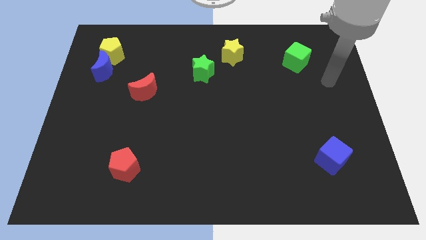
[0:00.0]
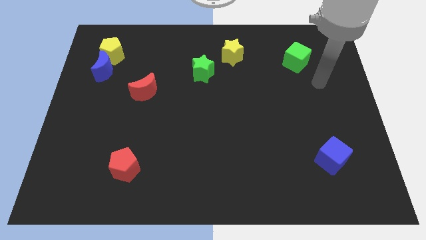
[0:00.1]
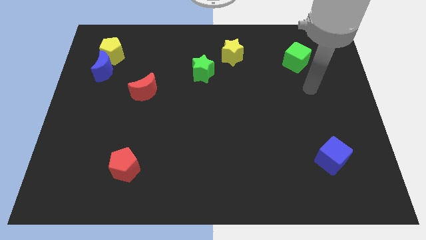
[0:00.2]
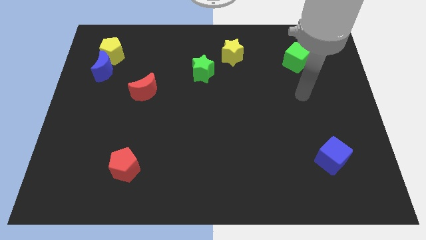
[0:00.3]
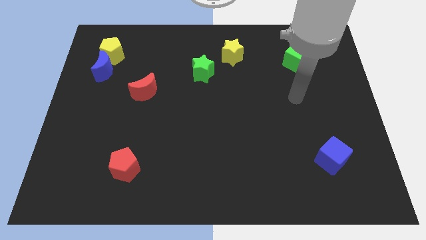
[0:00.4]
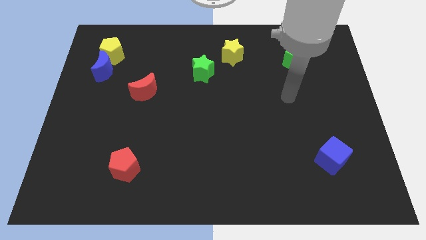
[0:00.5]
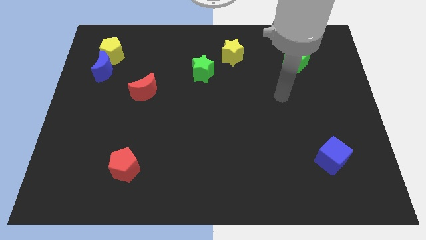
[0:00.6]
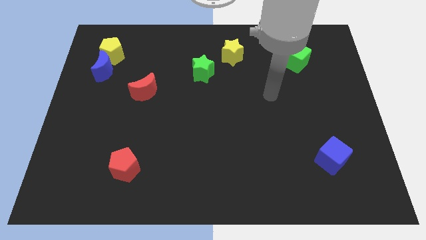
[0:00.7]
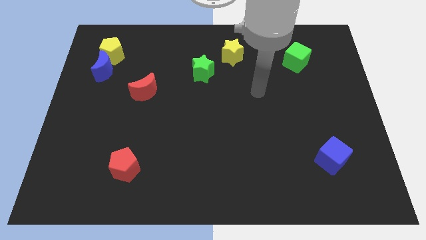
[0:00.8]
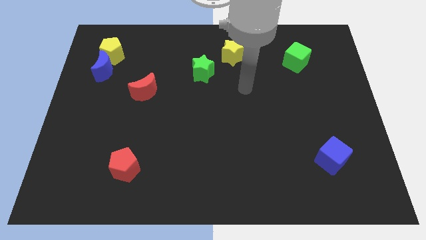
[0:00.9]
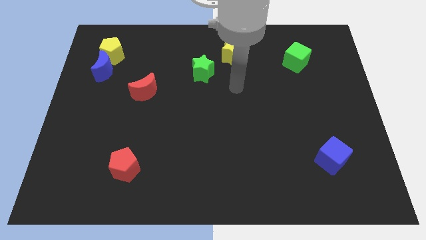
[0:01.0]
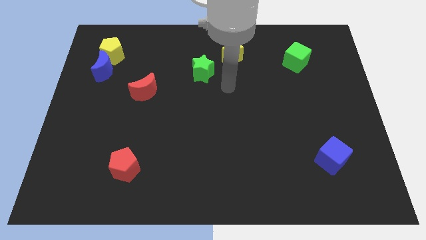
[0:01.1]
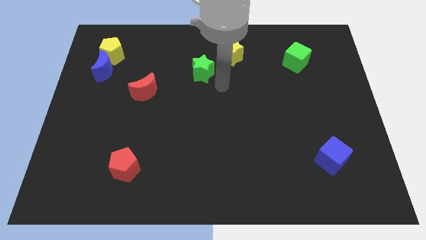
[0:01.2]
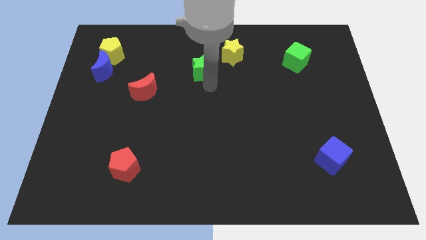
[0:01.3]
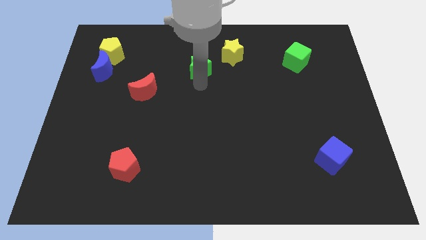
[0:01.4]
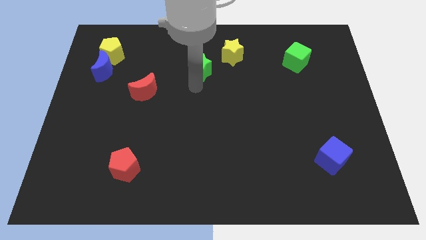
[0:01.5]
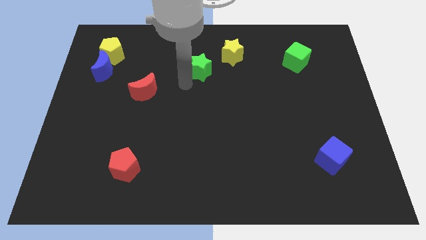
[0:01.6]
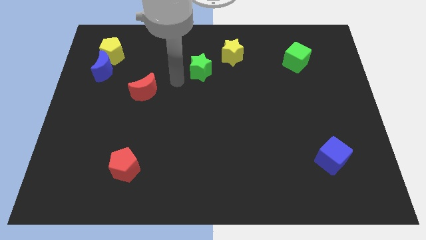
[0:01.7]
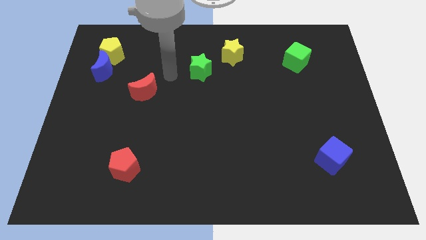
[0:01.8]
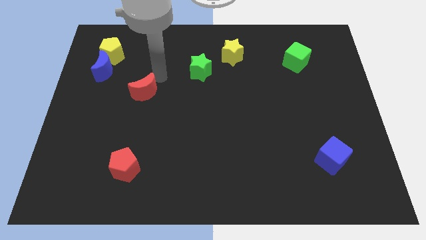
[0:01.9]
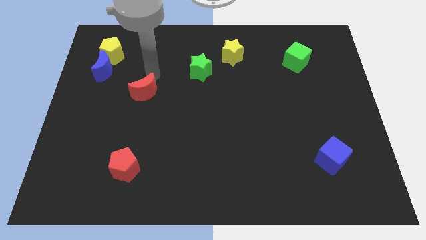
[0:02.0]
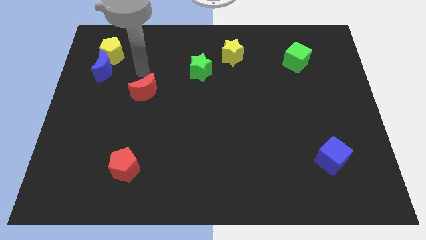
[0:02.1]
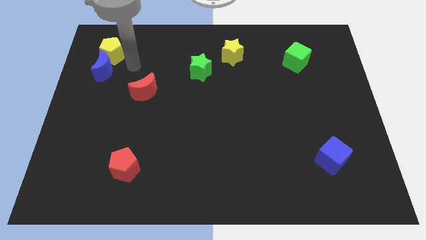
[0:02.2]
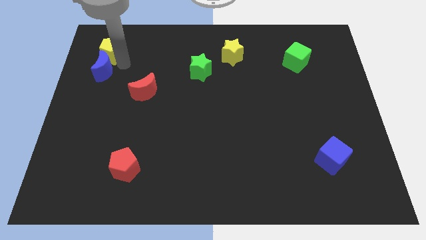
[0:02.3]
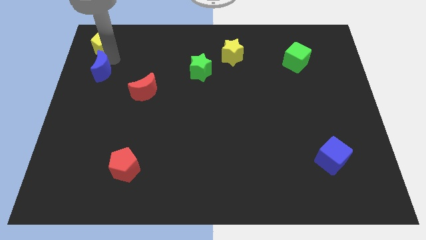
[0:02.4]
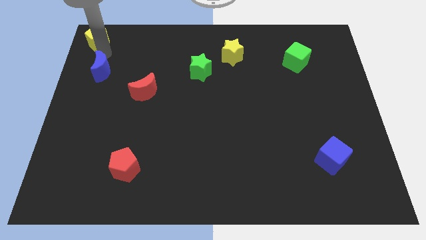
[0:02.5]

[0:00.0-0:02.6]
separate the blue moon from the yellow pentagon

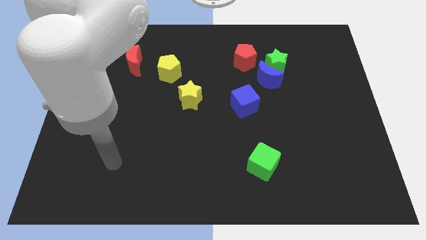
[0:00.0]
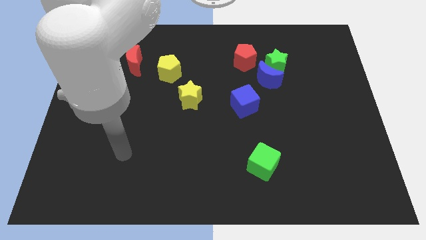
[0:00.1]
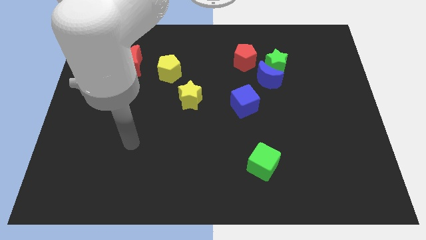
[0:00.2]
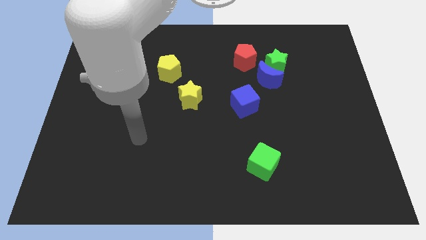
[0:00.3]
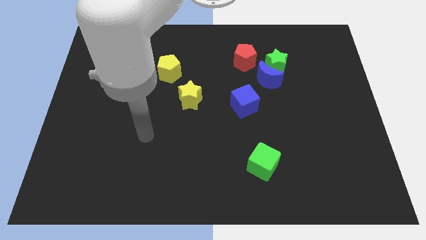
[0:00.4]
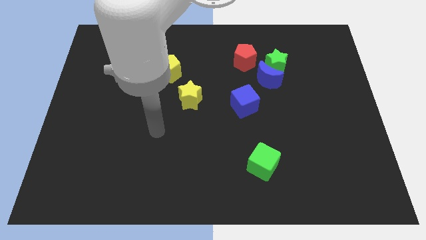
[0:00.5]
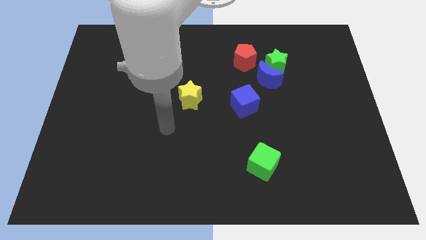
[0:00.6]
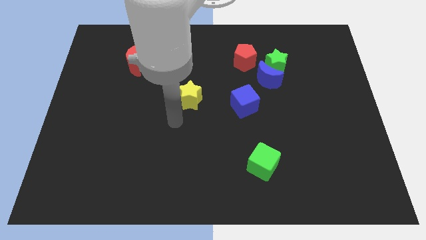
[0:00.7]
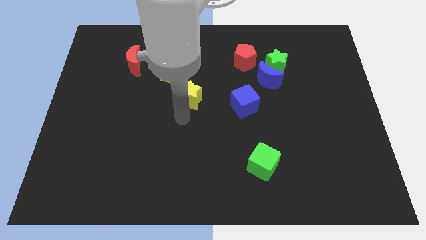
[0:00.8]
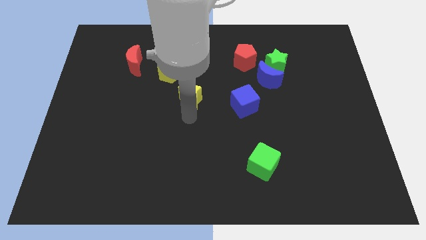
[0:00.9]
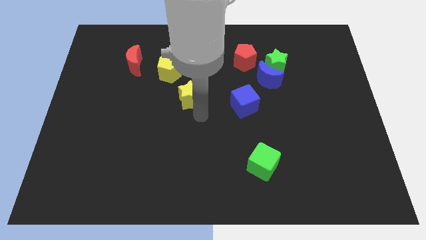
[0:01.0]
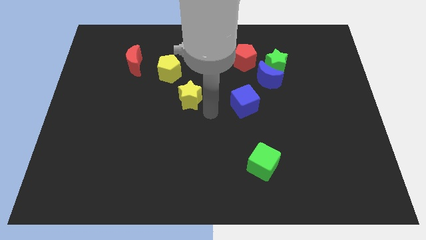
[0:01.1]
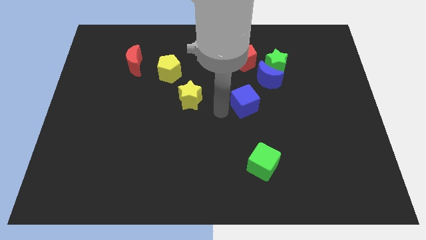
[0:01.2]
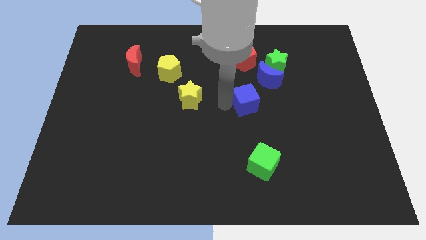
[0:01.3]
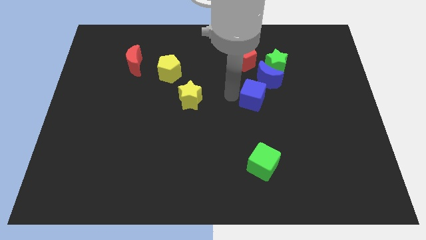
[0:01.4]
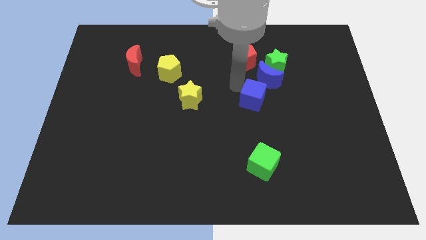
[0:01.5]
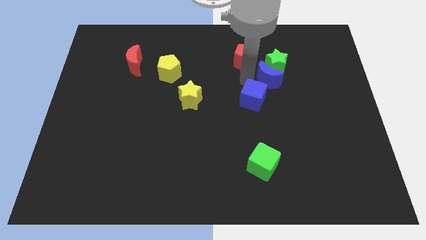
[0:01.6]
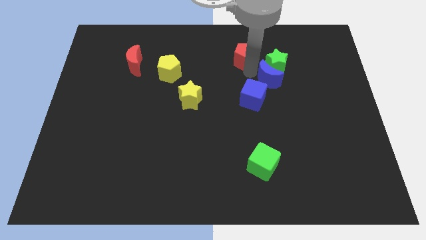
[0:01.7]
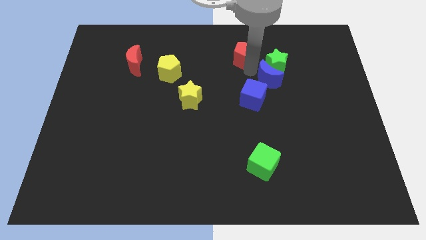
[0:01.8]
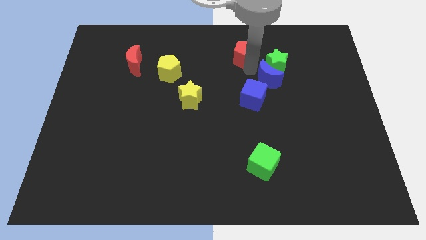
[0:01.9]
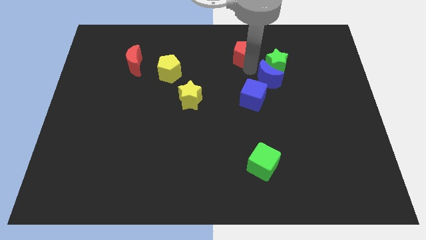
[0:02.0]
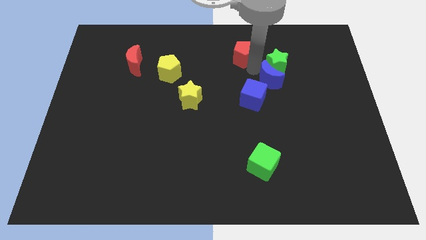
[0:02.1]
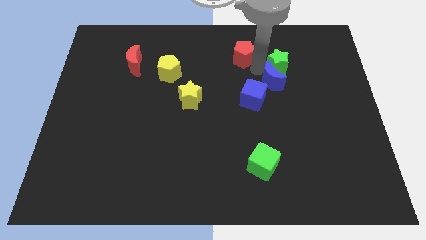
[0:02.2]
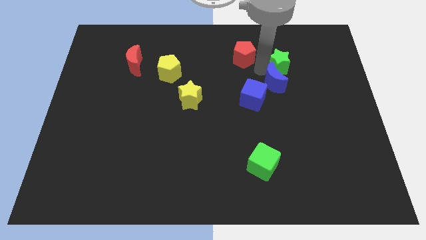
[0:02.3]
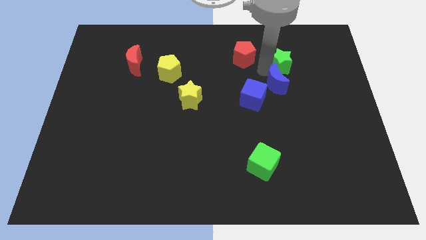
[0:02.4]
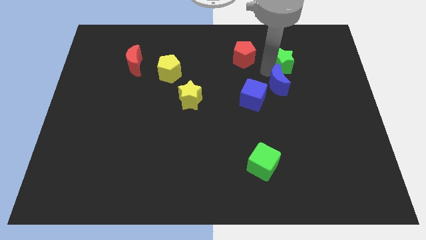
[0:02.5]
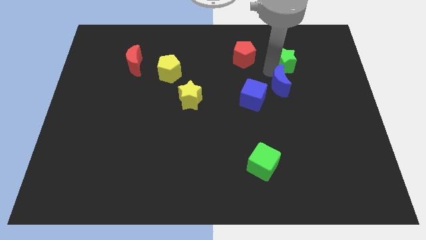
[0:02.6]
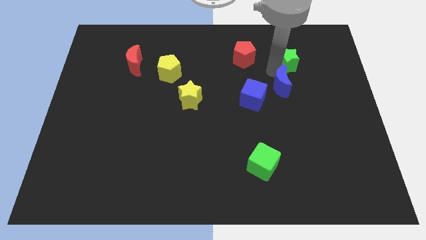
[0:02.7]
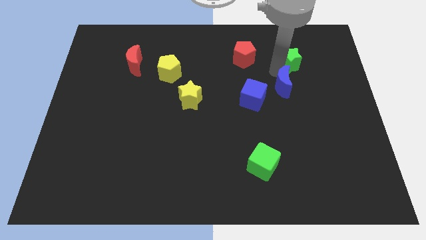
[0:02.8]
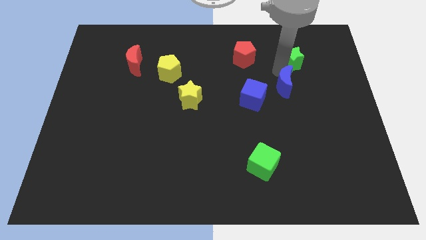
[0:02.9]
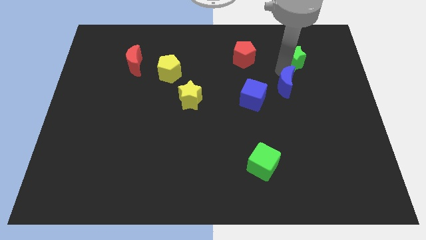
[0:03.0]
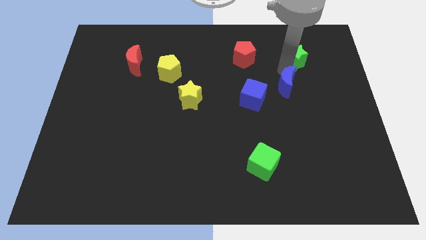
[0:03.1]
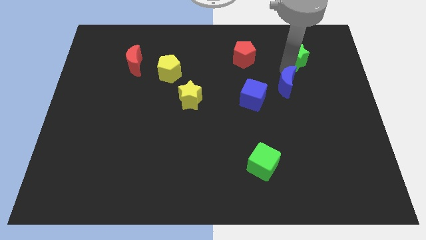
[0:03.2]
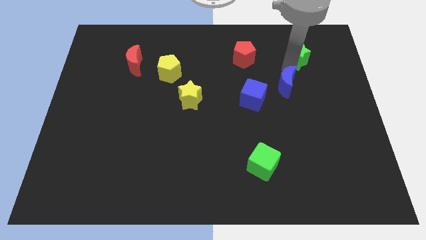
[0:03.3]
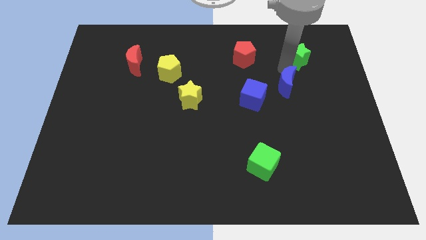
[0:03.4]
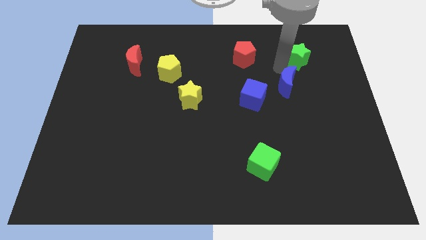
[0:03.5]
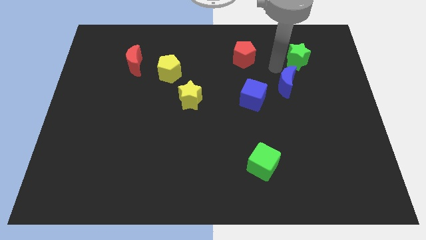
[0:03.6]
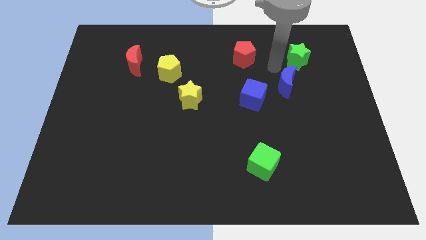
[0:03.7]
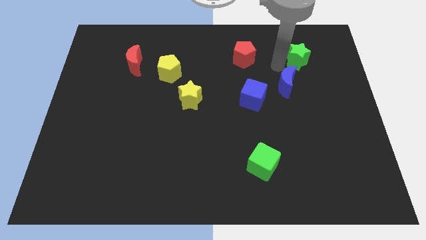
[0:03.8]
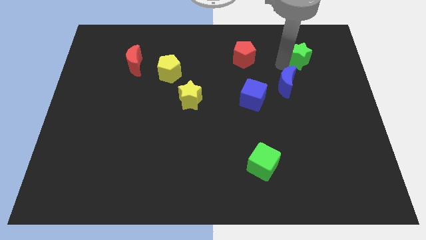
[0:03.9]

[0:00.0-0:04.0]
separate the green star from the blue moon and red pentagon

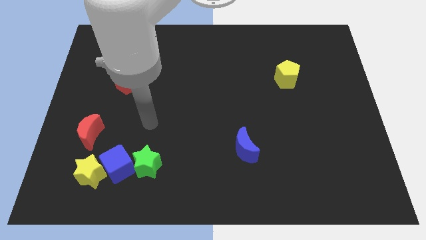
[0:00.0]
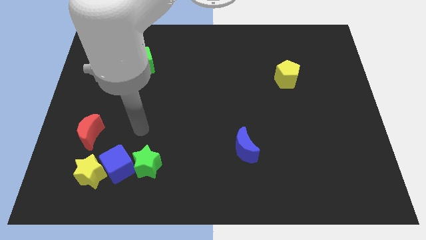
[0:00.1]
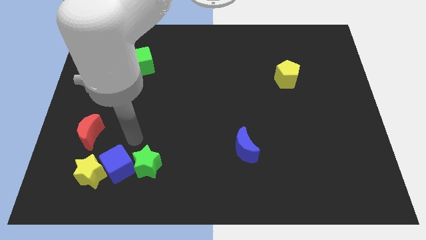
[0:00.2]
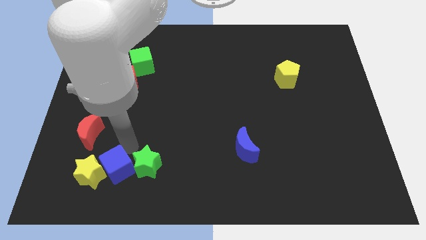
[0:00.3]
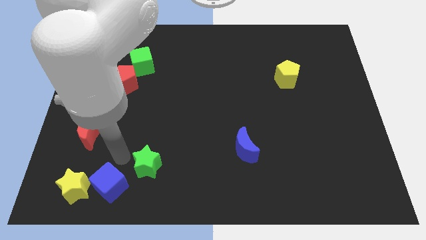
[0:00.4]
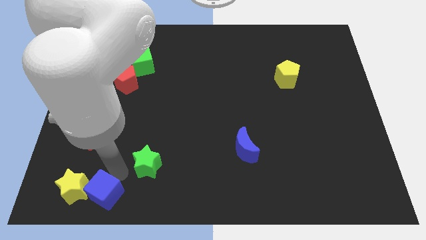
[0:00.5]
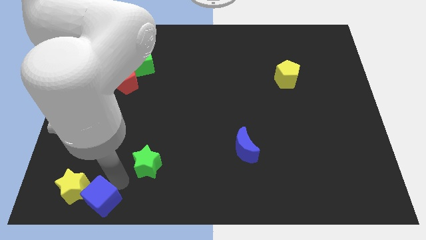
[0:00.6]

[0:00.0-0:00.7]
move the green star away from the blue cube

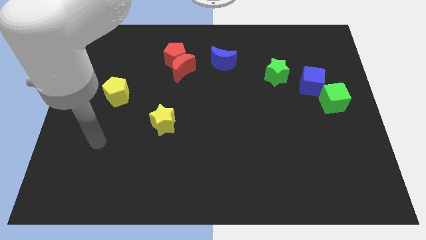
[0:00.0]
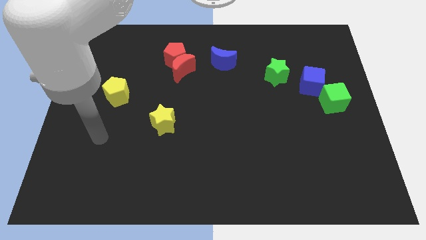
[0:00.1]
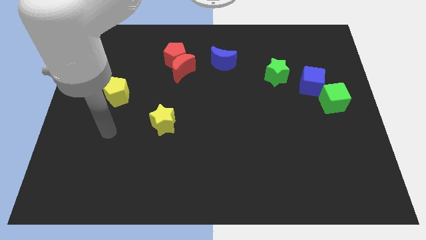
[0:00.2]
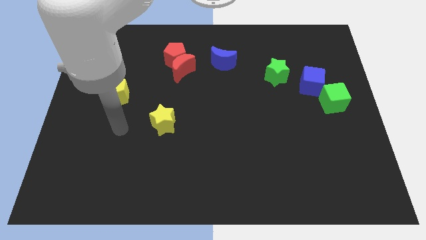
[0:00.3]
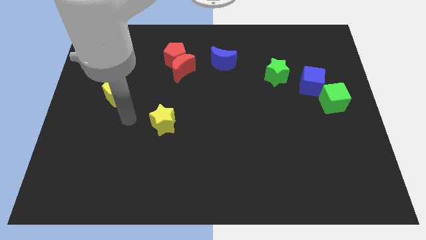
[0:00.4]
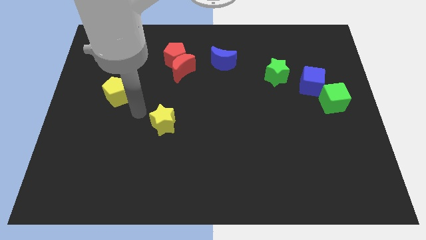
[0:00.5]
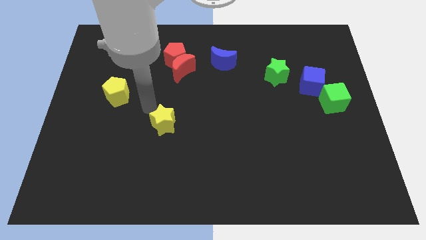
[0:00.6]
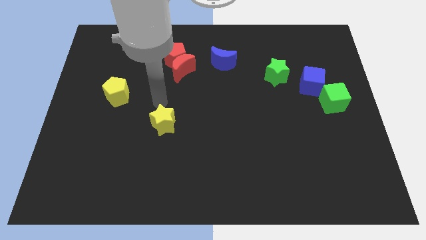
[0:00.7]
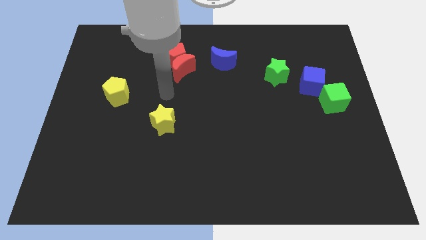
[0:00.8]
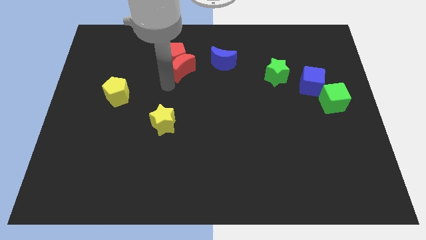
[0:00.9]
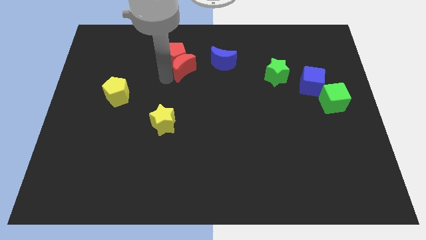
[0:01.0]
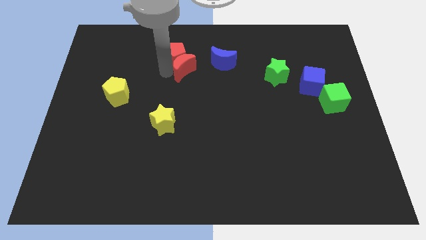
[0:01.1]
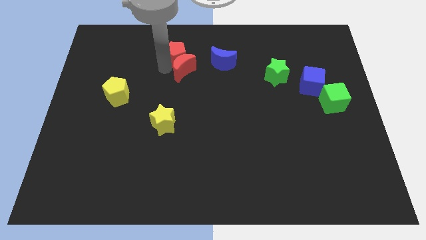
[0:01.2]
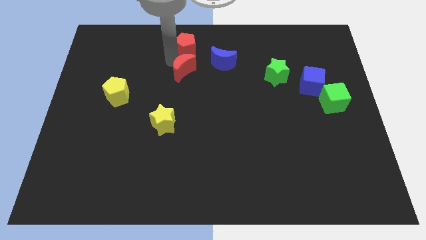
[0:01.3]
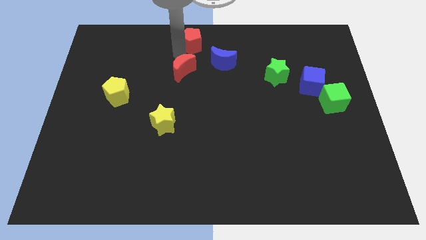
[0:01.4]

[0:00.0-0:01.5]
separate the red moon from the red pentagon

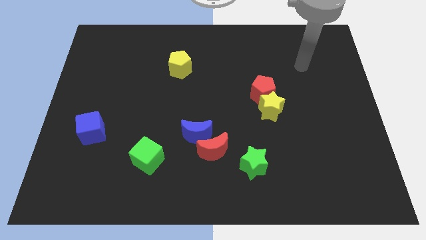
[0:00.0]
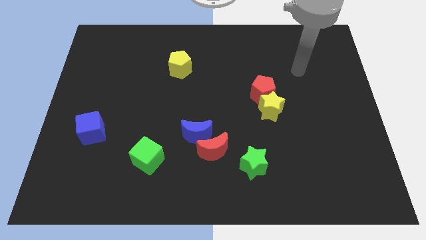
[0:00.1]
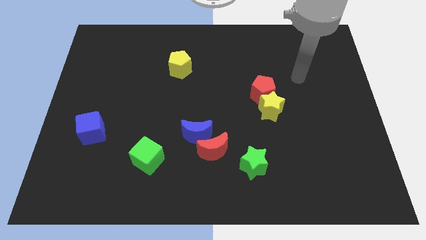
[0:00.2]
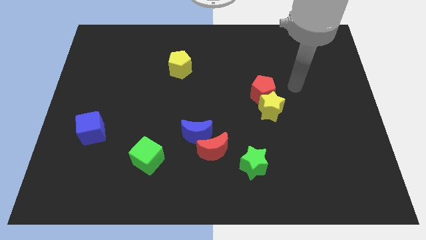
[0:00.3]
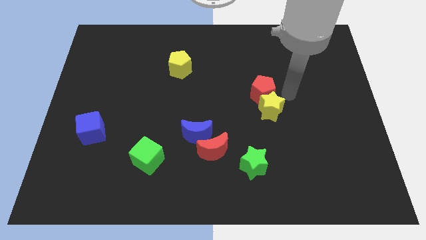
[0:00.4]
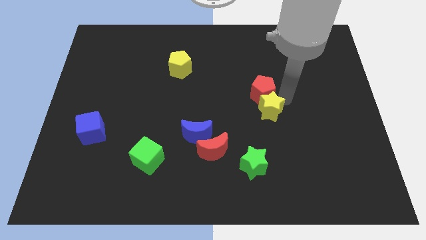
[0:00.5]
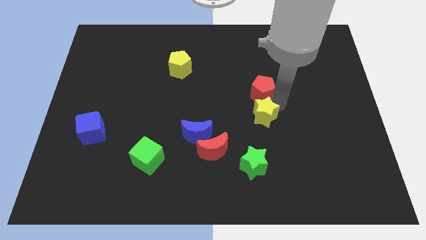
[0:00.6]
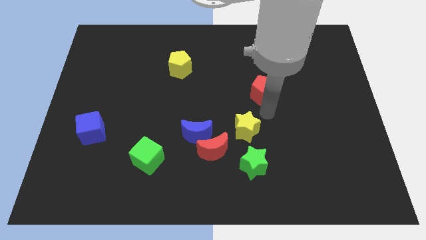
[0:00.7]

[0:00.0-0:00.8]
pull the red pentagon apart from the yellow star
